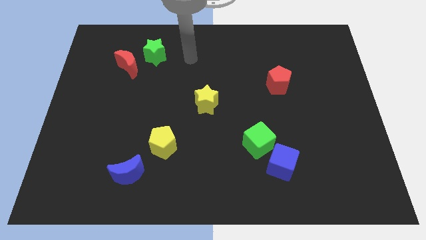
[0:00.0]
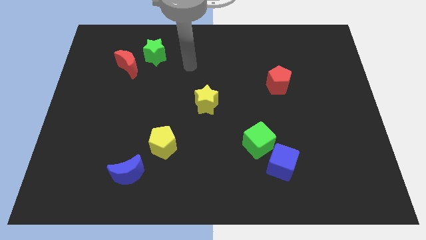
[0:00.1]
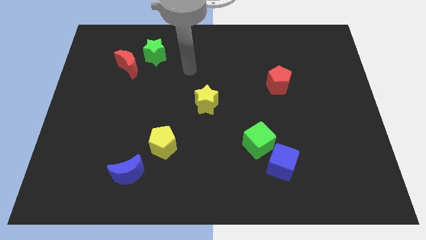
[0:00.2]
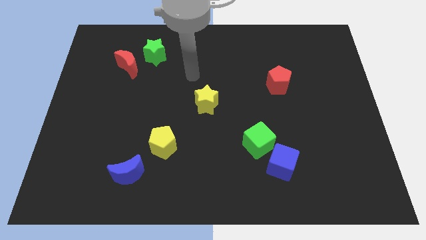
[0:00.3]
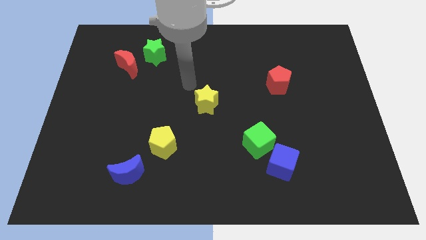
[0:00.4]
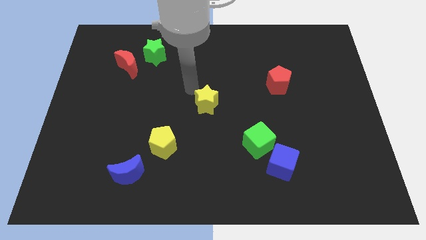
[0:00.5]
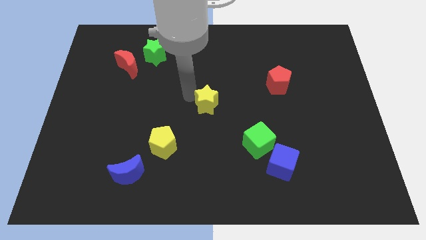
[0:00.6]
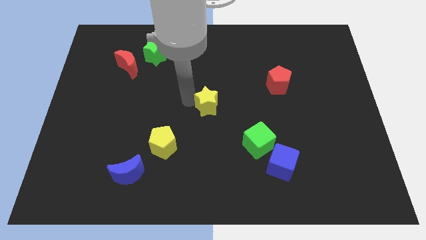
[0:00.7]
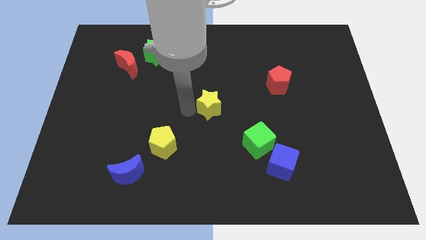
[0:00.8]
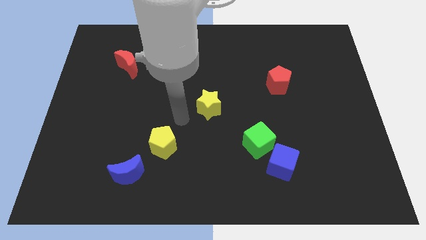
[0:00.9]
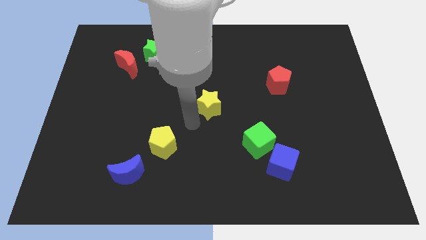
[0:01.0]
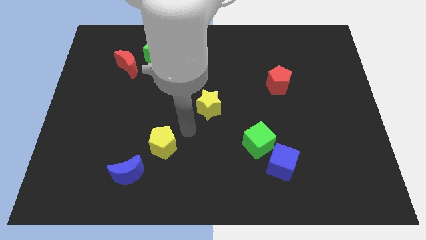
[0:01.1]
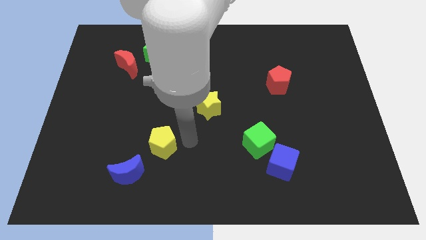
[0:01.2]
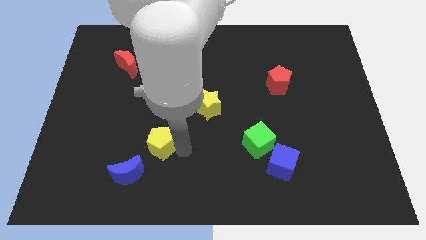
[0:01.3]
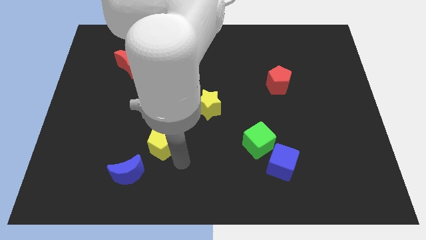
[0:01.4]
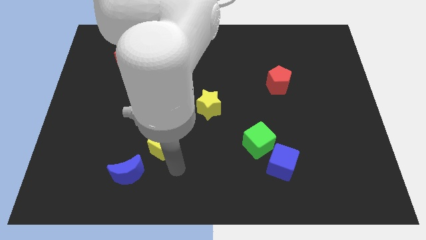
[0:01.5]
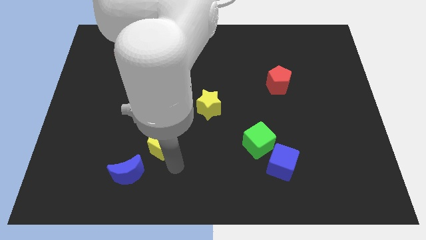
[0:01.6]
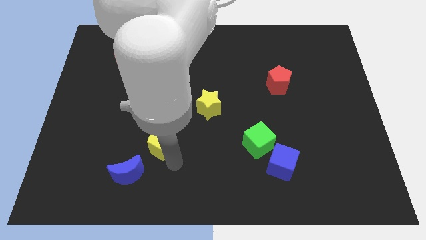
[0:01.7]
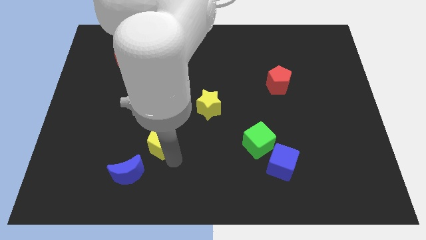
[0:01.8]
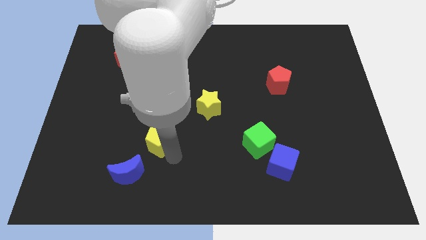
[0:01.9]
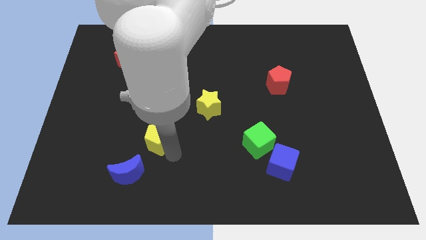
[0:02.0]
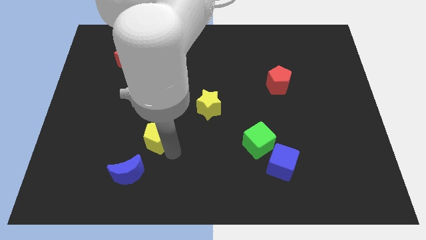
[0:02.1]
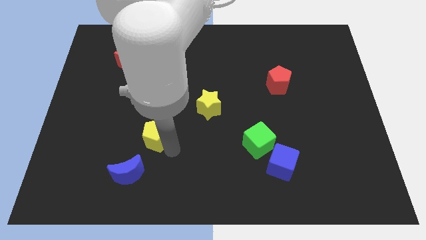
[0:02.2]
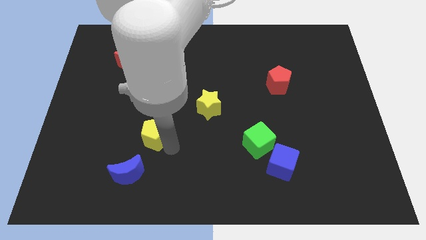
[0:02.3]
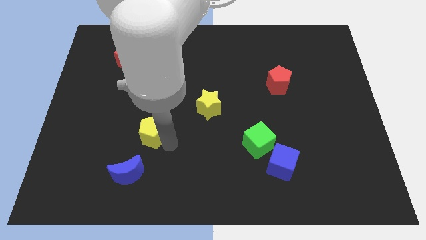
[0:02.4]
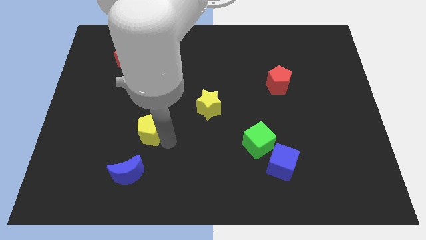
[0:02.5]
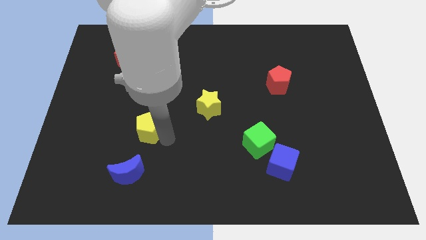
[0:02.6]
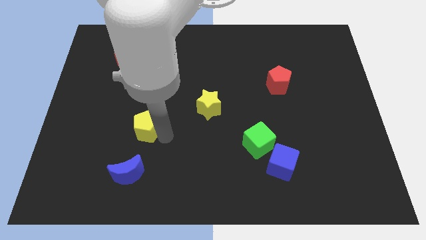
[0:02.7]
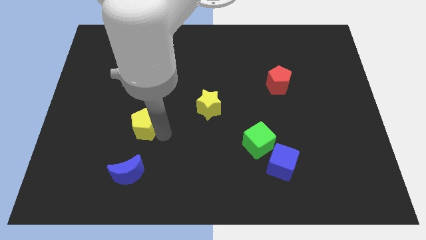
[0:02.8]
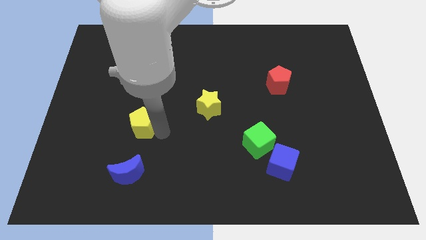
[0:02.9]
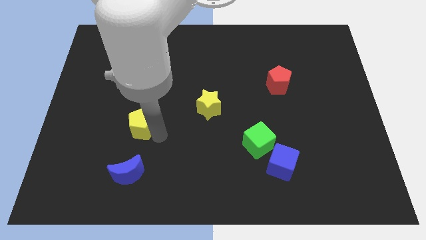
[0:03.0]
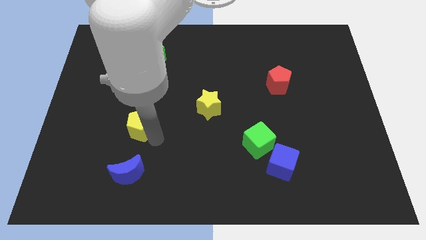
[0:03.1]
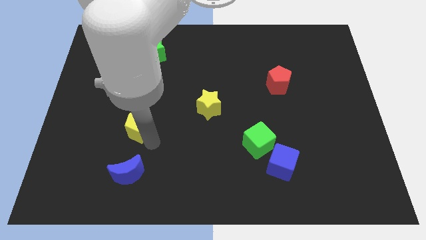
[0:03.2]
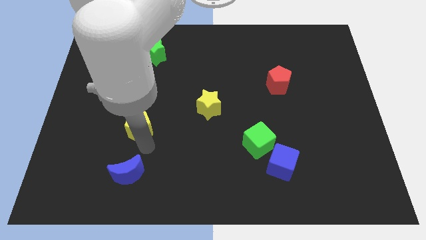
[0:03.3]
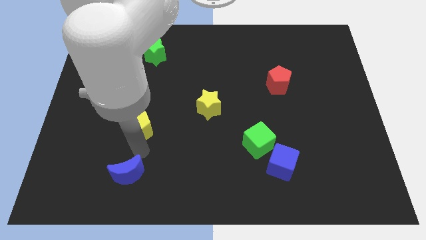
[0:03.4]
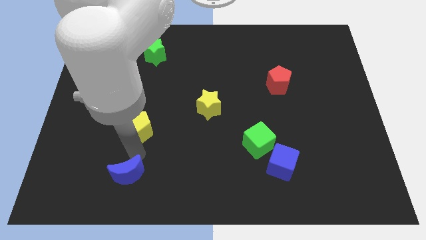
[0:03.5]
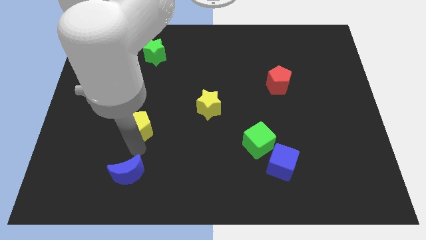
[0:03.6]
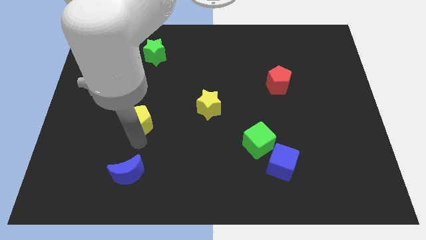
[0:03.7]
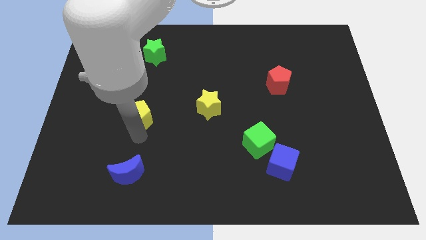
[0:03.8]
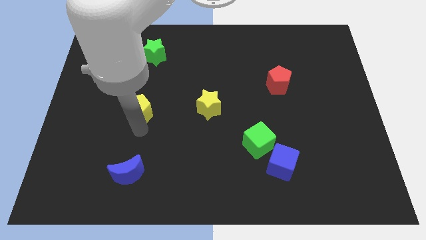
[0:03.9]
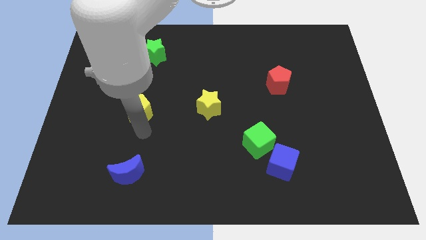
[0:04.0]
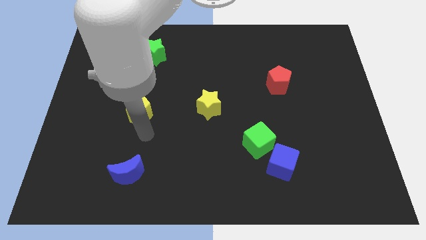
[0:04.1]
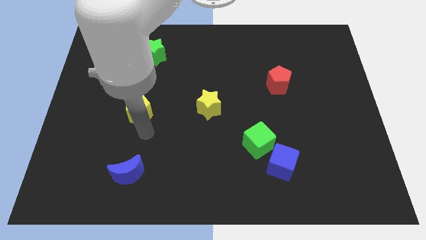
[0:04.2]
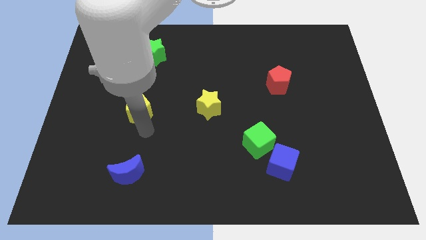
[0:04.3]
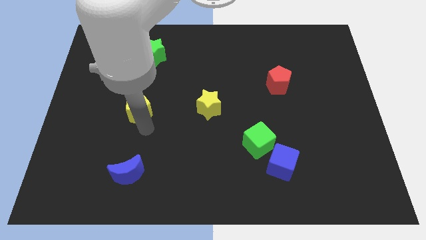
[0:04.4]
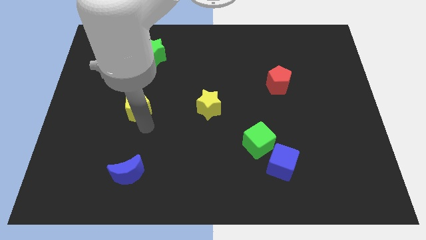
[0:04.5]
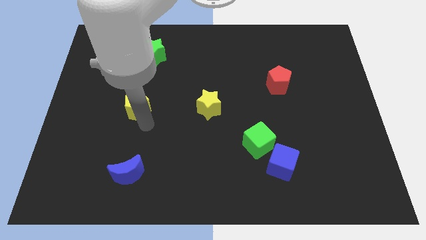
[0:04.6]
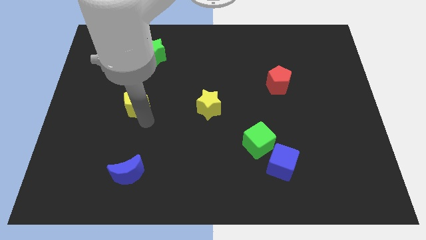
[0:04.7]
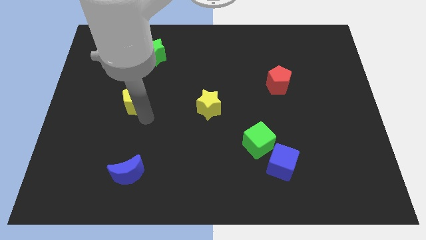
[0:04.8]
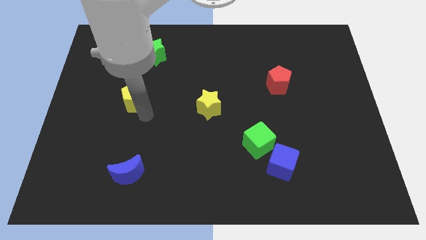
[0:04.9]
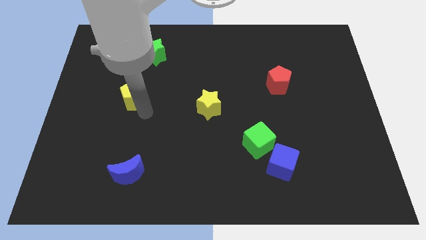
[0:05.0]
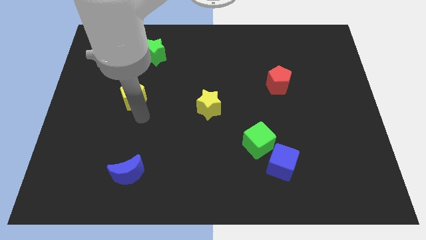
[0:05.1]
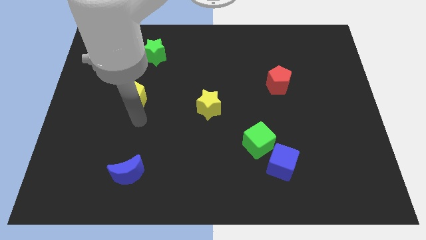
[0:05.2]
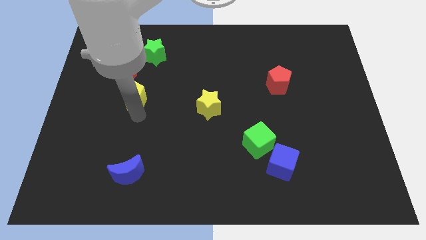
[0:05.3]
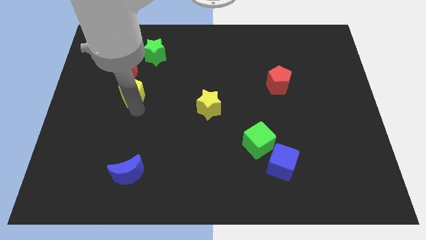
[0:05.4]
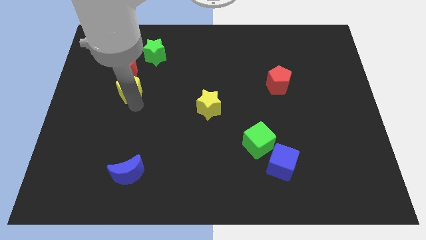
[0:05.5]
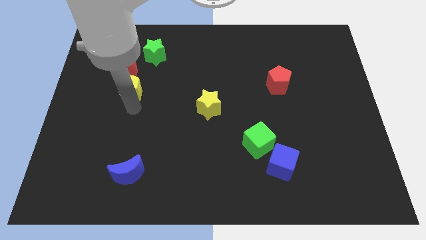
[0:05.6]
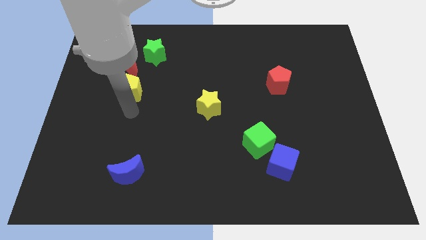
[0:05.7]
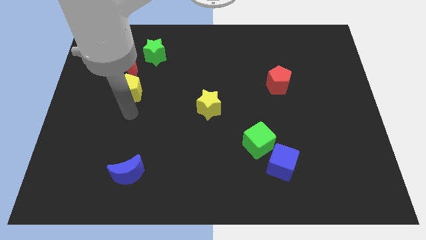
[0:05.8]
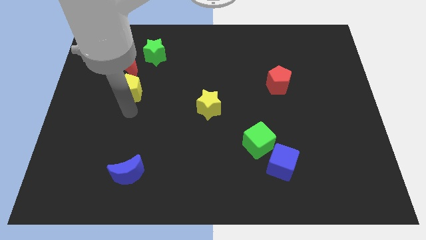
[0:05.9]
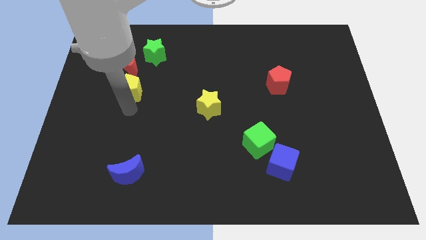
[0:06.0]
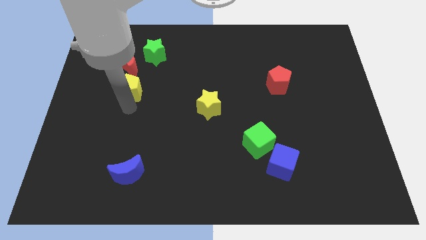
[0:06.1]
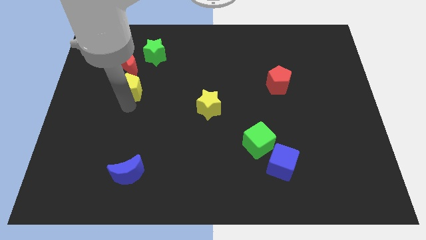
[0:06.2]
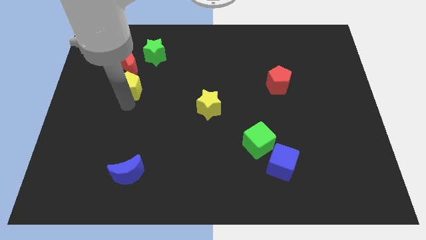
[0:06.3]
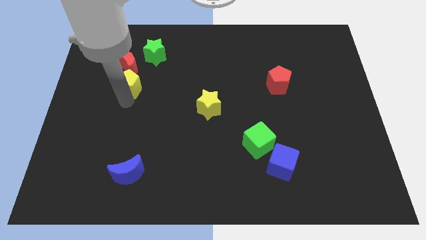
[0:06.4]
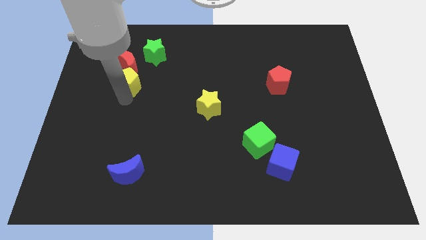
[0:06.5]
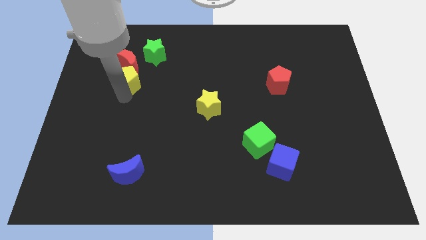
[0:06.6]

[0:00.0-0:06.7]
move the yellow pentagon towards the red moon

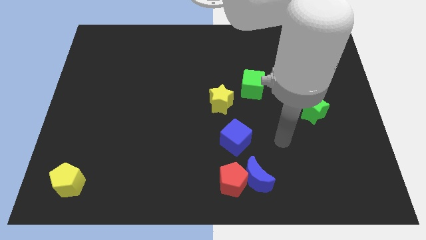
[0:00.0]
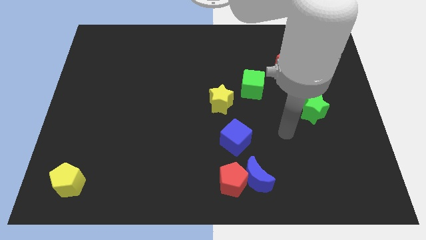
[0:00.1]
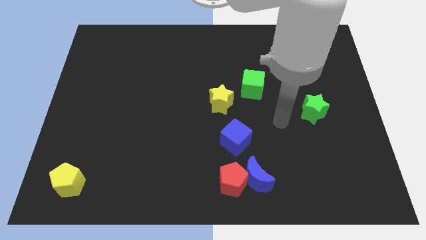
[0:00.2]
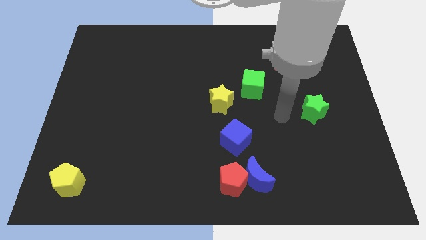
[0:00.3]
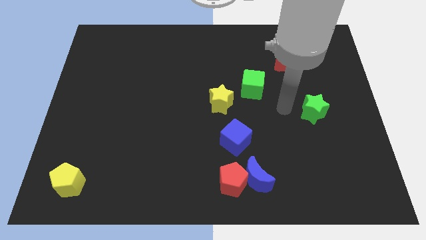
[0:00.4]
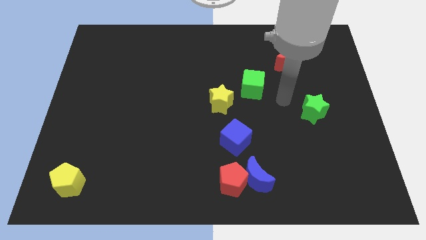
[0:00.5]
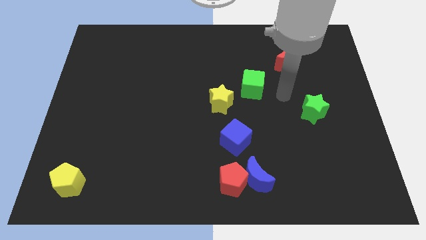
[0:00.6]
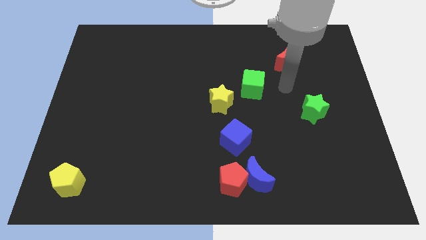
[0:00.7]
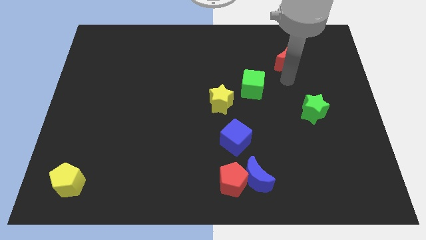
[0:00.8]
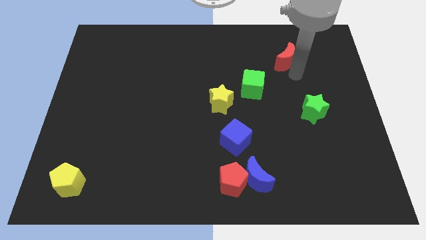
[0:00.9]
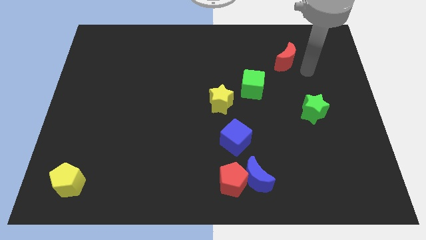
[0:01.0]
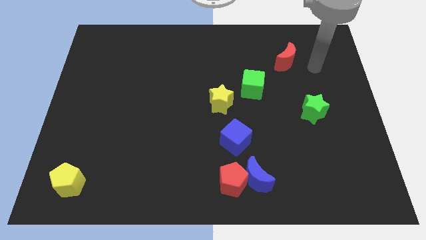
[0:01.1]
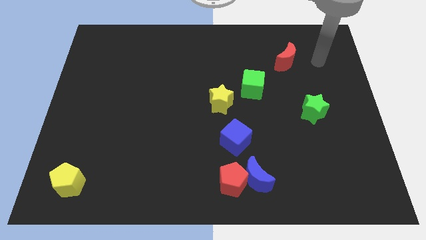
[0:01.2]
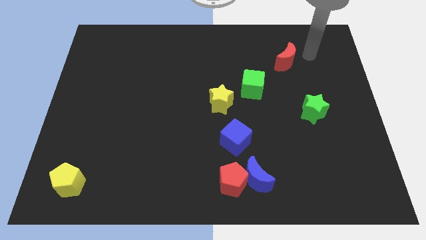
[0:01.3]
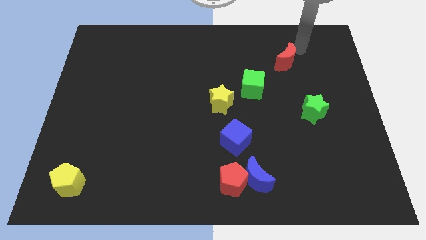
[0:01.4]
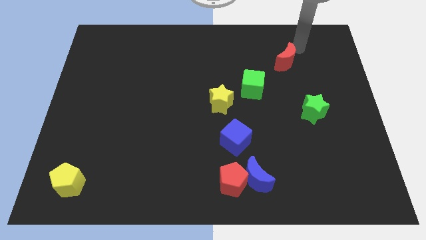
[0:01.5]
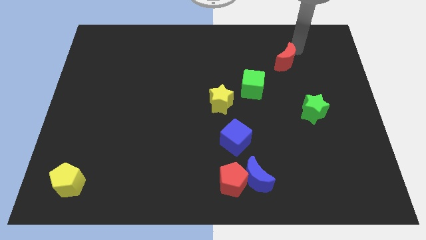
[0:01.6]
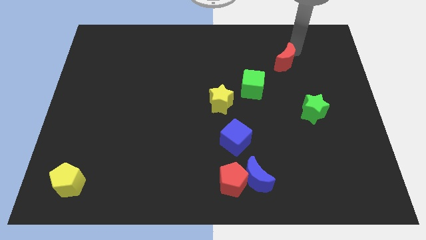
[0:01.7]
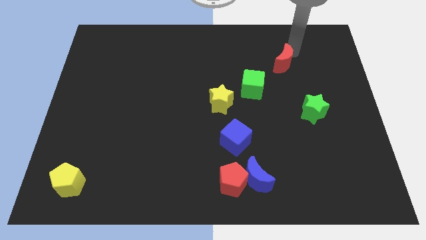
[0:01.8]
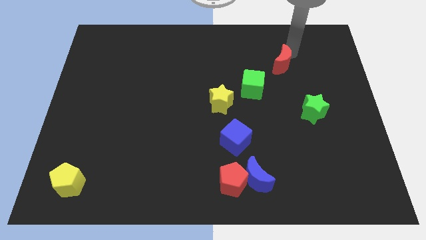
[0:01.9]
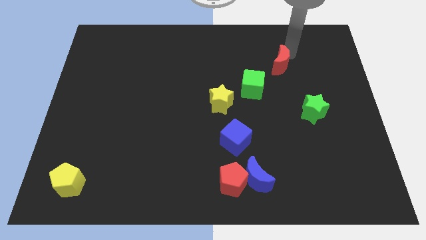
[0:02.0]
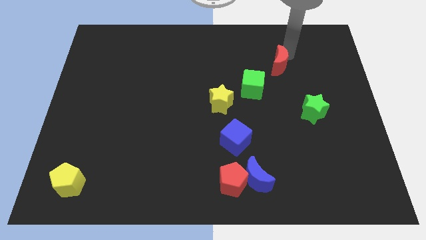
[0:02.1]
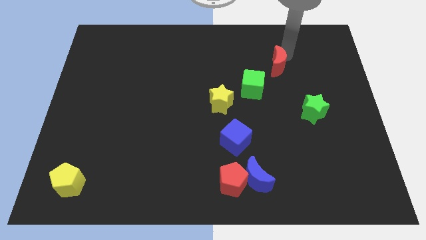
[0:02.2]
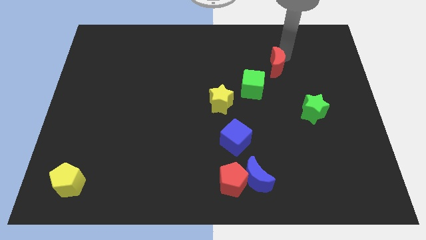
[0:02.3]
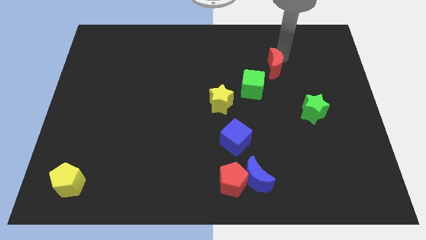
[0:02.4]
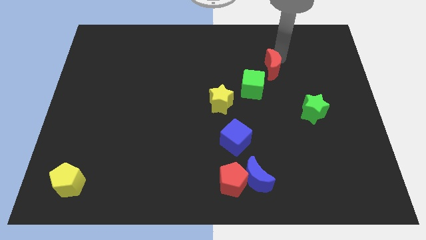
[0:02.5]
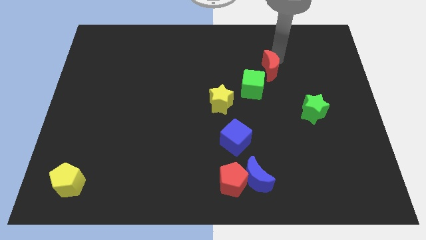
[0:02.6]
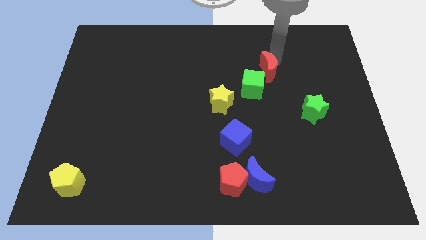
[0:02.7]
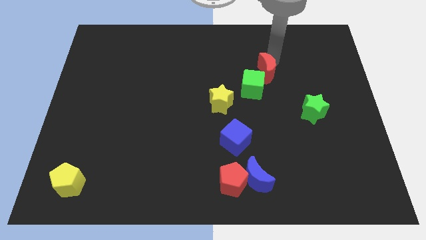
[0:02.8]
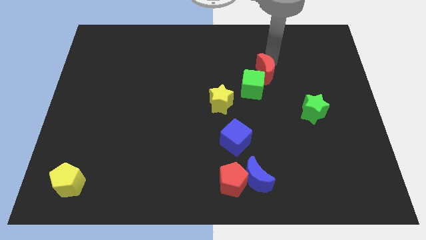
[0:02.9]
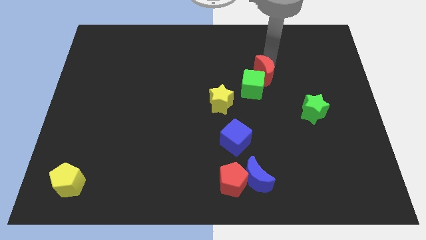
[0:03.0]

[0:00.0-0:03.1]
move the red moon to the green cube
